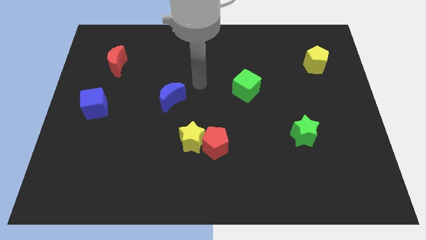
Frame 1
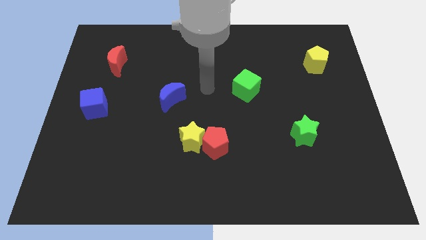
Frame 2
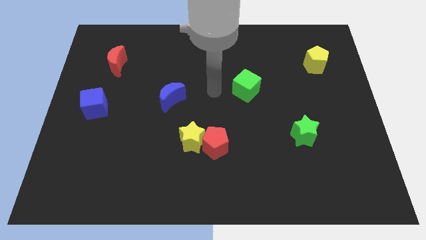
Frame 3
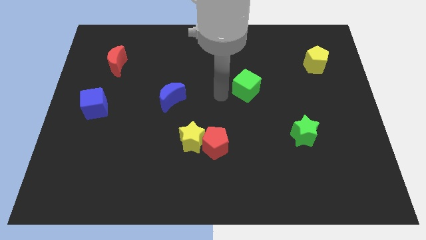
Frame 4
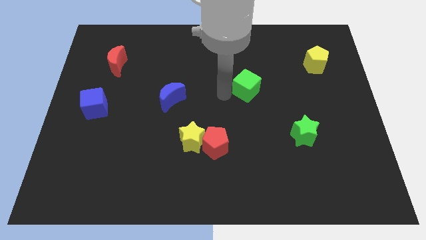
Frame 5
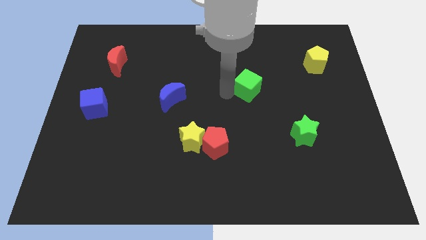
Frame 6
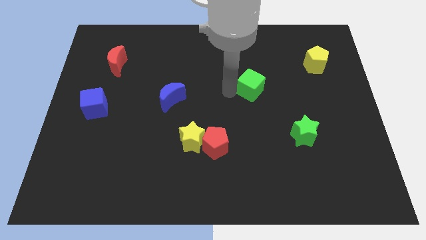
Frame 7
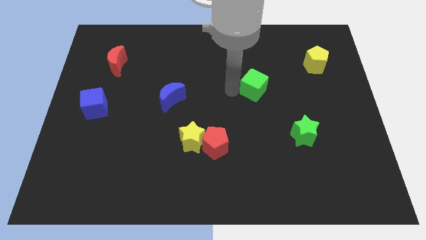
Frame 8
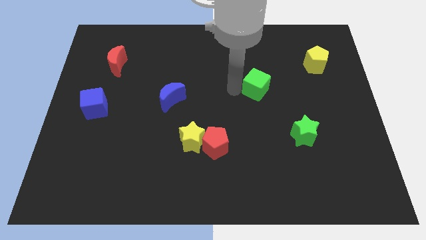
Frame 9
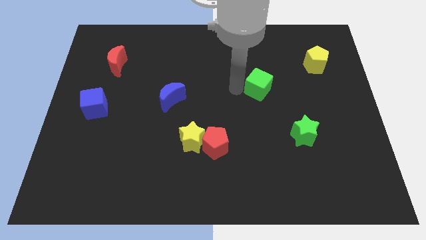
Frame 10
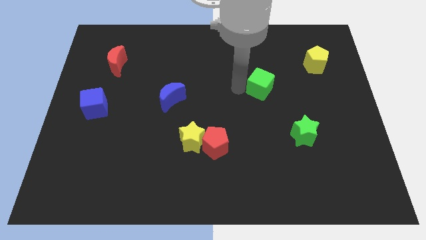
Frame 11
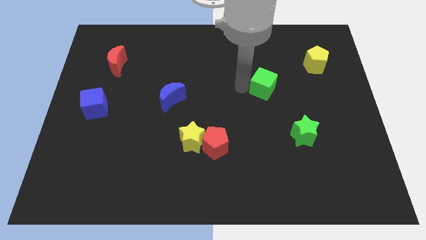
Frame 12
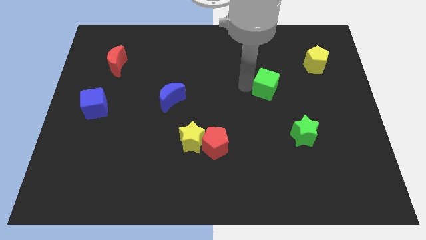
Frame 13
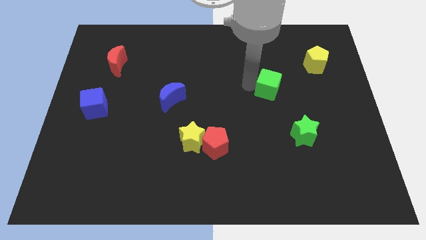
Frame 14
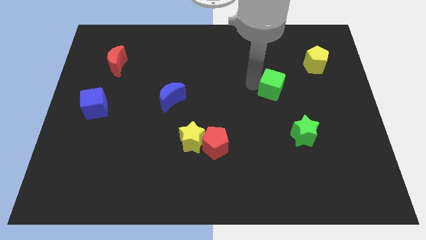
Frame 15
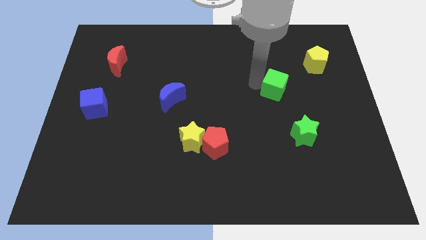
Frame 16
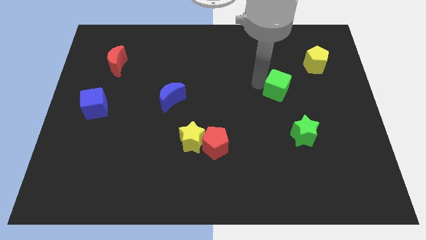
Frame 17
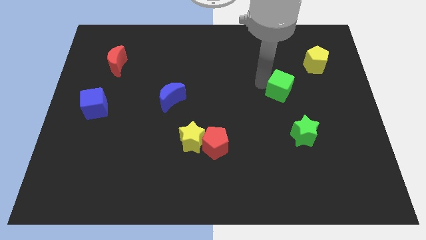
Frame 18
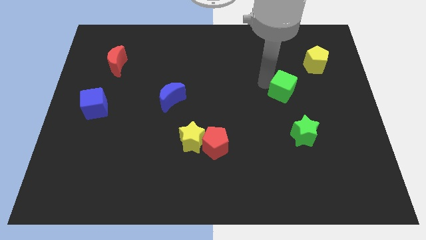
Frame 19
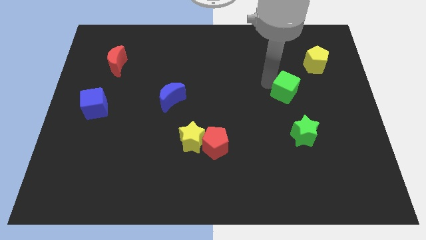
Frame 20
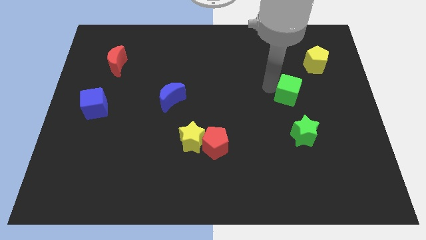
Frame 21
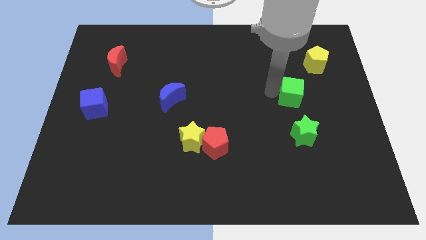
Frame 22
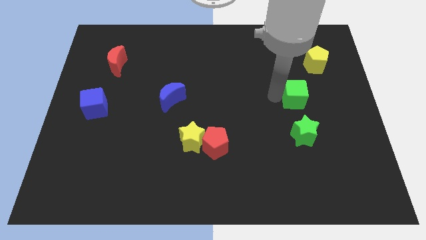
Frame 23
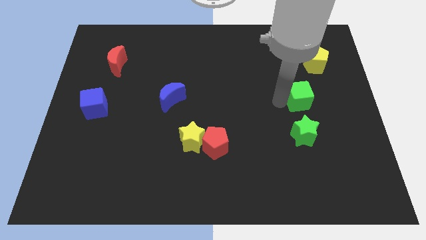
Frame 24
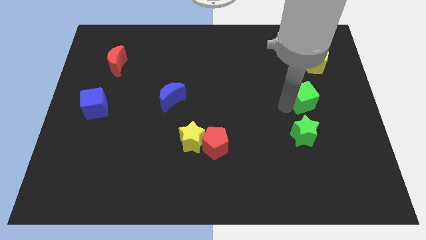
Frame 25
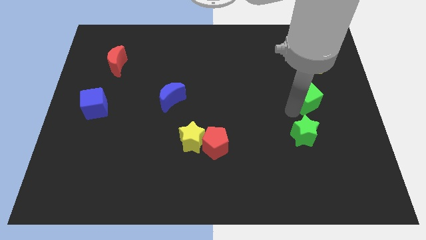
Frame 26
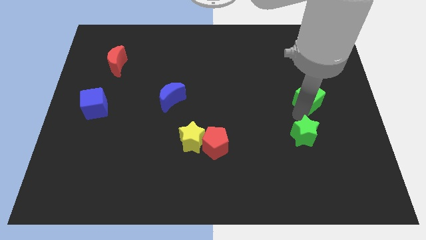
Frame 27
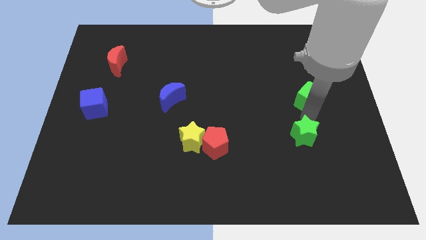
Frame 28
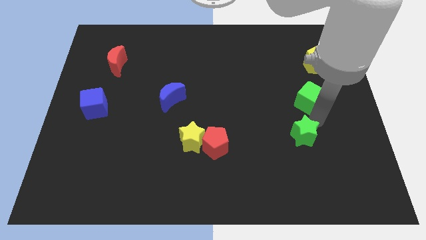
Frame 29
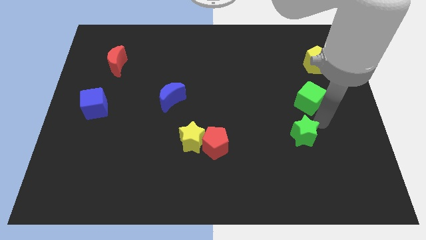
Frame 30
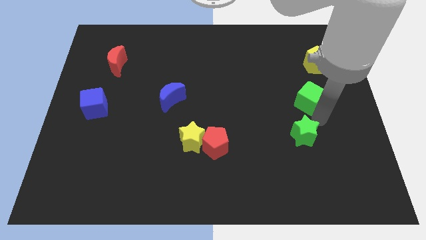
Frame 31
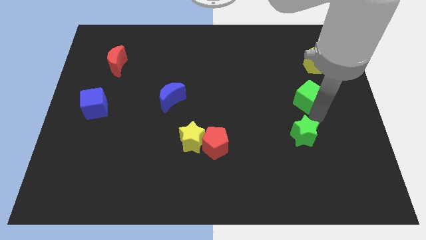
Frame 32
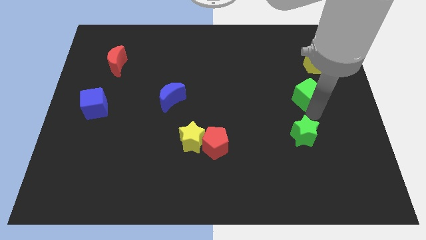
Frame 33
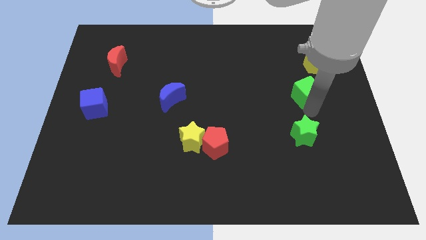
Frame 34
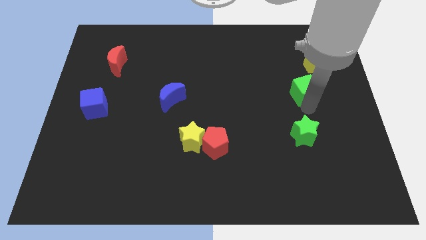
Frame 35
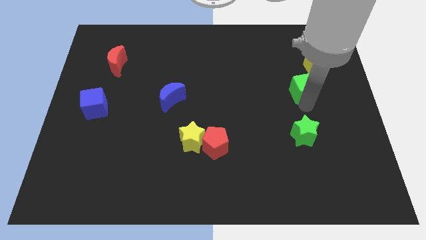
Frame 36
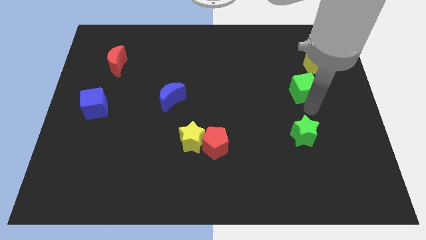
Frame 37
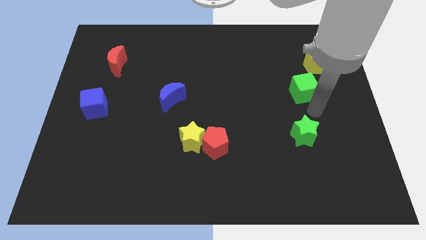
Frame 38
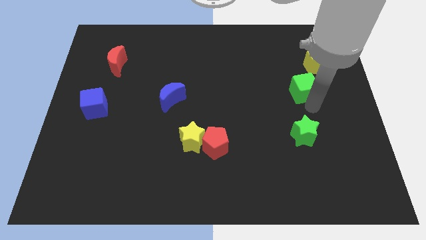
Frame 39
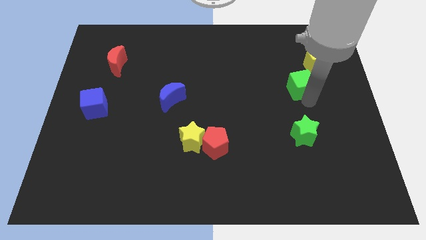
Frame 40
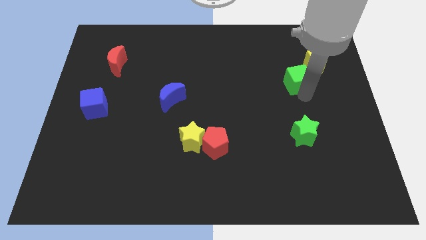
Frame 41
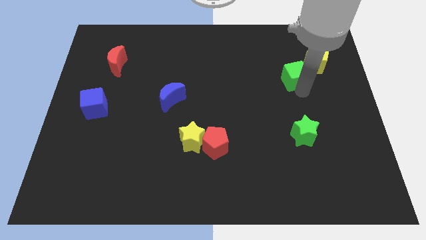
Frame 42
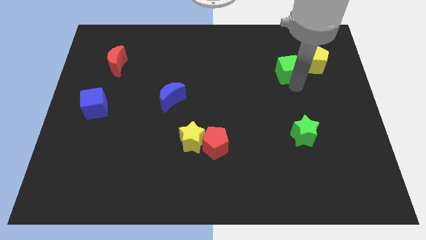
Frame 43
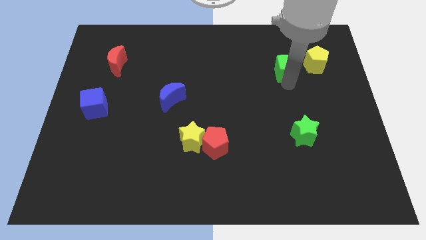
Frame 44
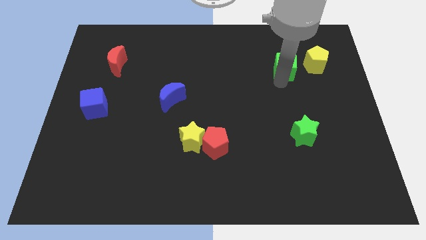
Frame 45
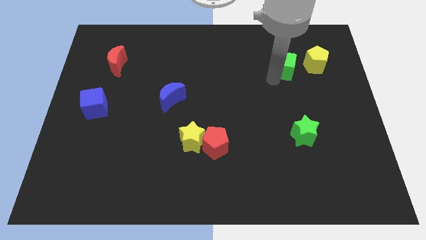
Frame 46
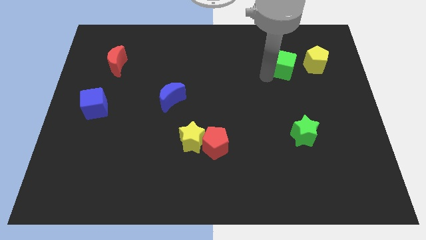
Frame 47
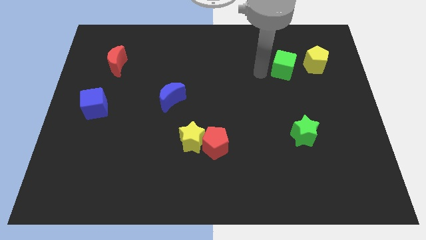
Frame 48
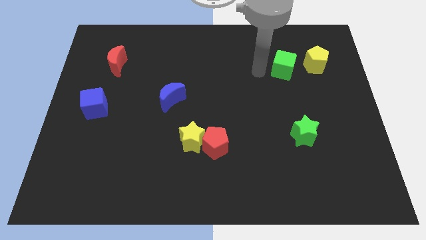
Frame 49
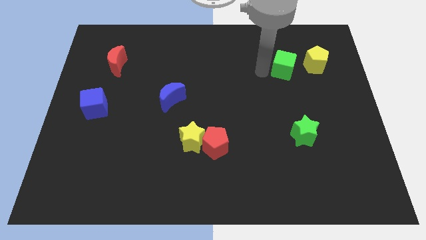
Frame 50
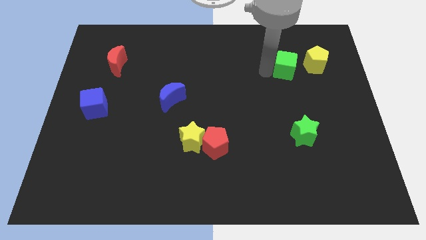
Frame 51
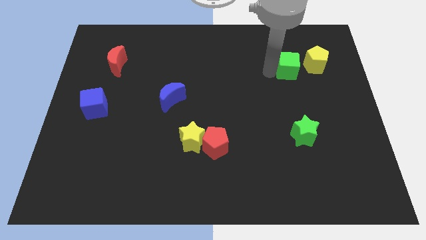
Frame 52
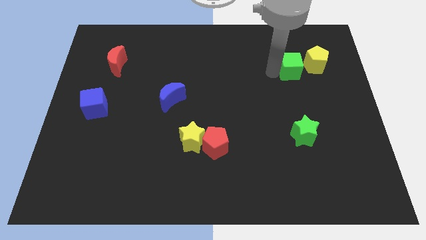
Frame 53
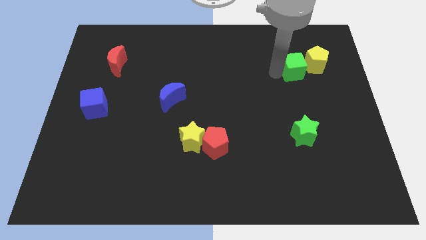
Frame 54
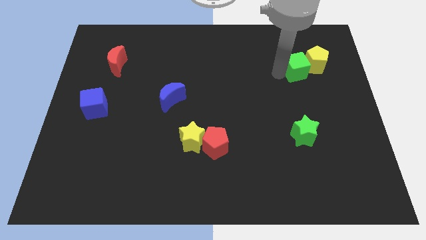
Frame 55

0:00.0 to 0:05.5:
put the green cube close to the yellow pentagon

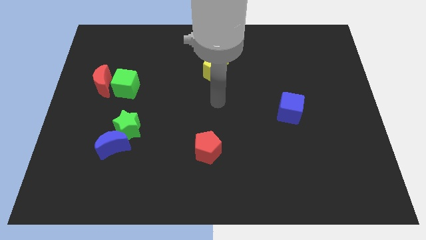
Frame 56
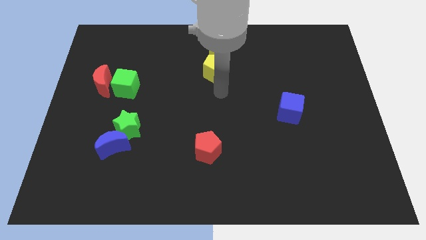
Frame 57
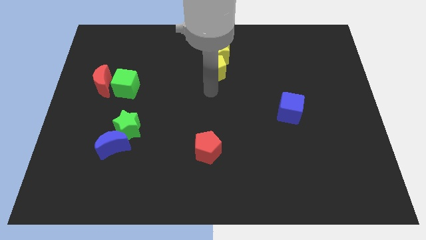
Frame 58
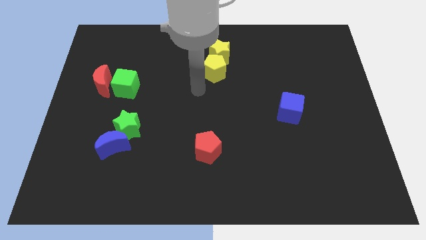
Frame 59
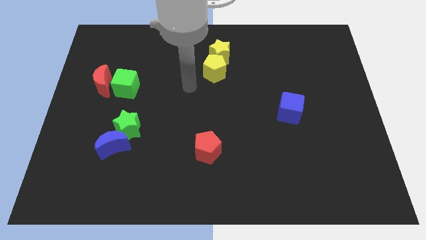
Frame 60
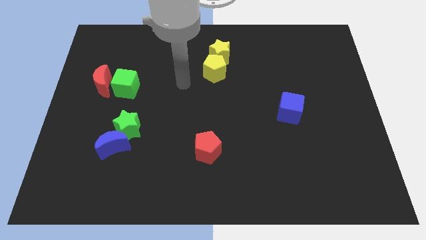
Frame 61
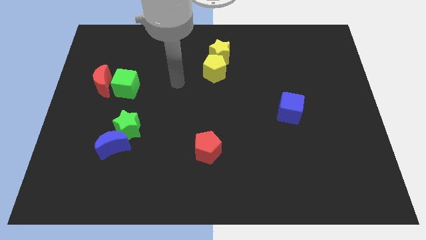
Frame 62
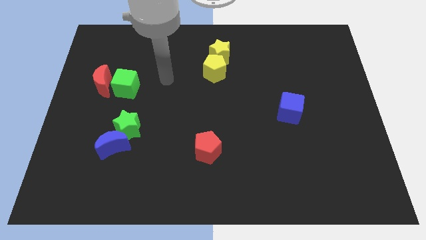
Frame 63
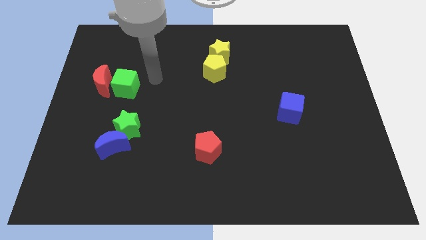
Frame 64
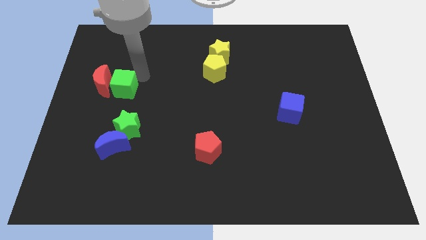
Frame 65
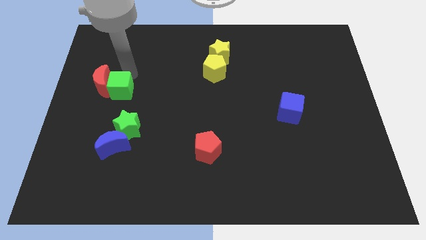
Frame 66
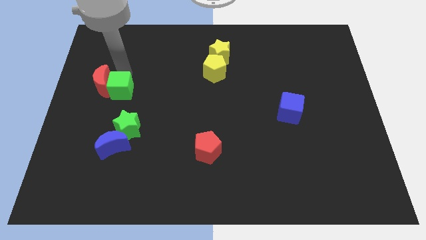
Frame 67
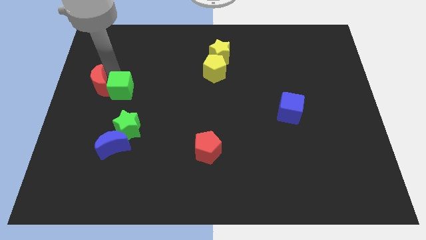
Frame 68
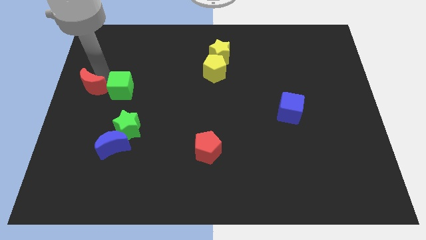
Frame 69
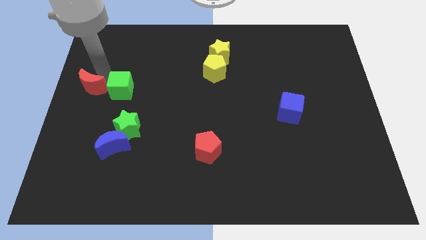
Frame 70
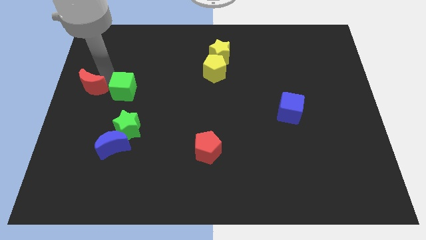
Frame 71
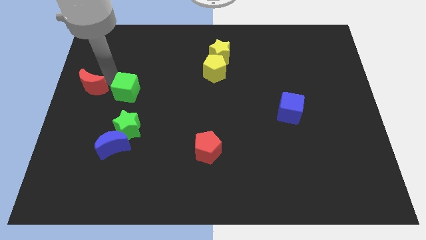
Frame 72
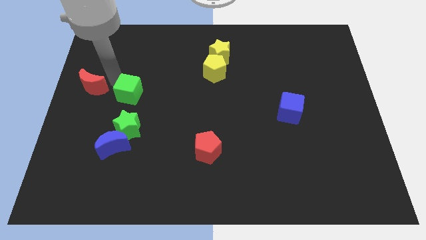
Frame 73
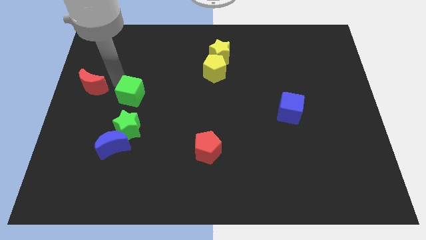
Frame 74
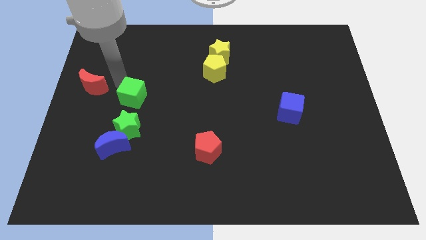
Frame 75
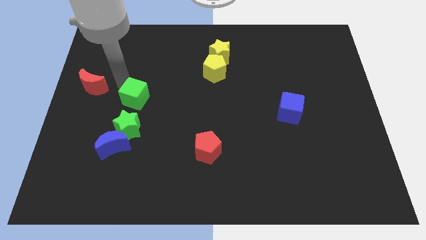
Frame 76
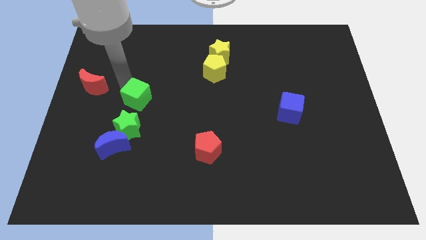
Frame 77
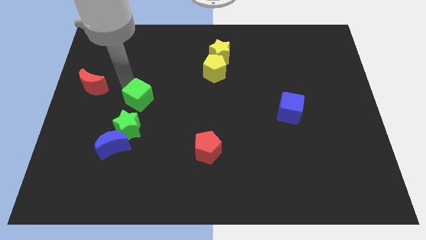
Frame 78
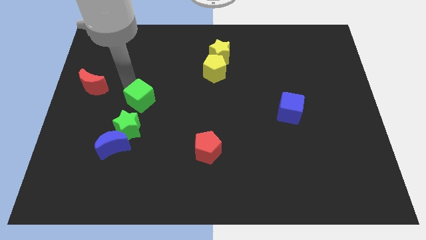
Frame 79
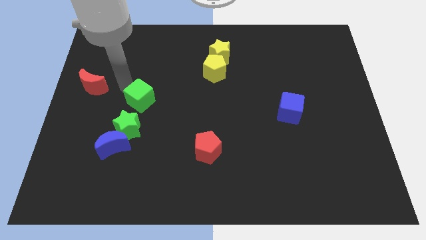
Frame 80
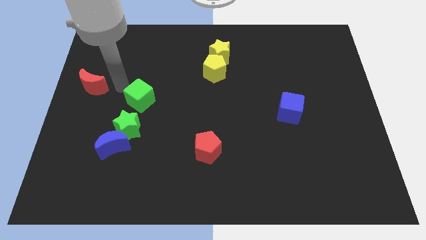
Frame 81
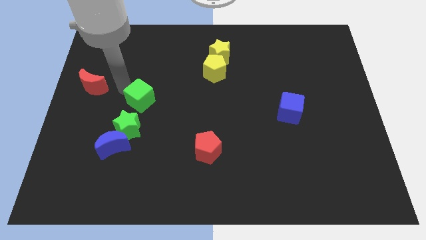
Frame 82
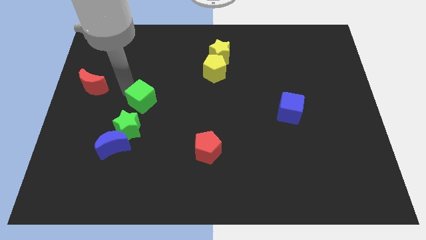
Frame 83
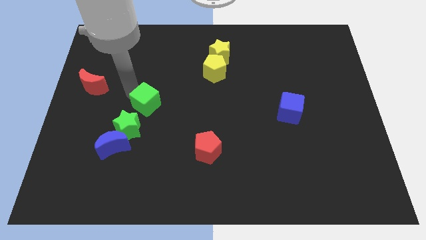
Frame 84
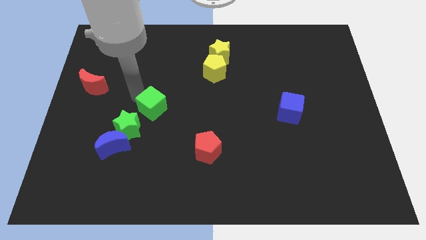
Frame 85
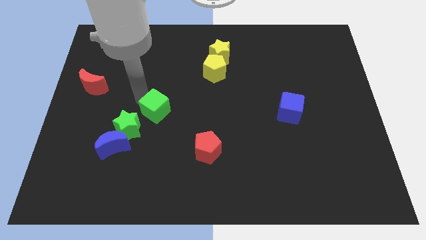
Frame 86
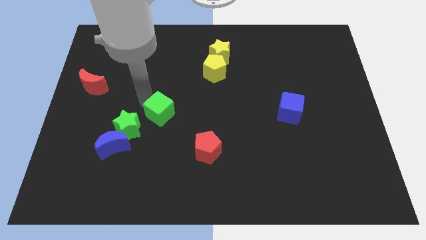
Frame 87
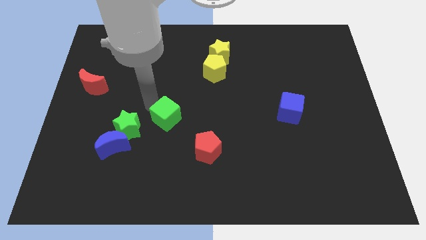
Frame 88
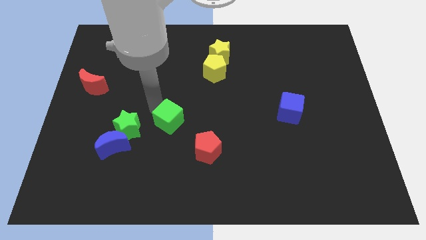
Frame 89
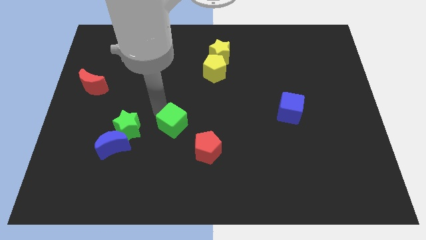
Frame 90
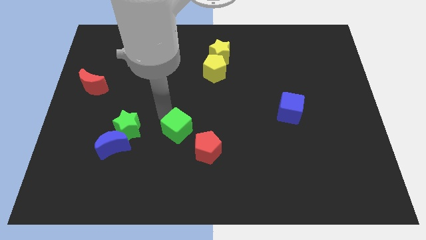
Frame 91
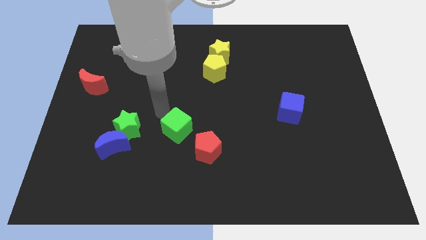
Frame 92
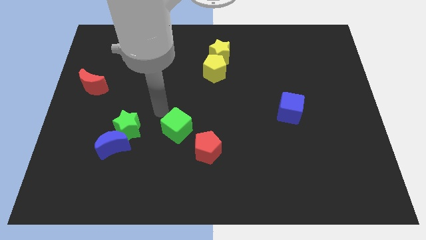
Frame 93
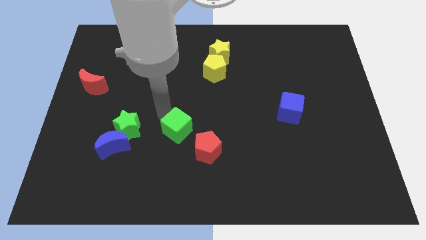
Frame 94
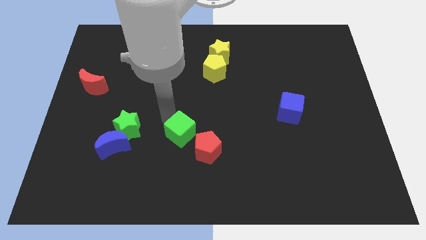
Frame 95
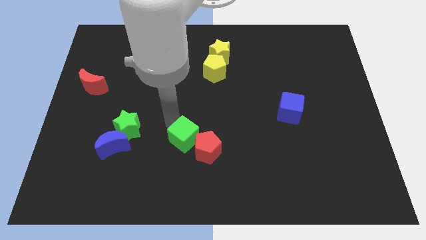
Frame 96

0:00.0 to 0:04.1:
move the green cube to the red pentagon
